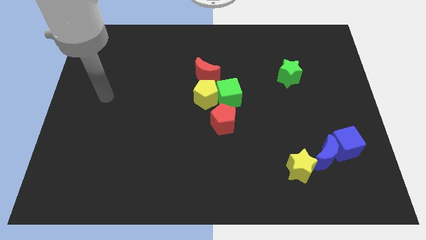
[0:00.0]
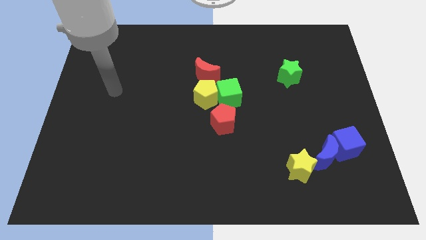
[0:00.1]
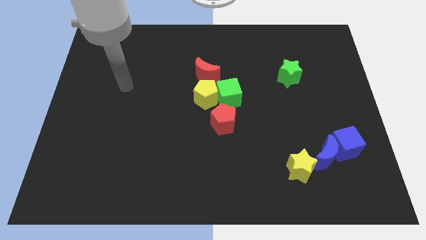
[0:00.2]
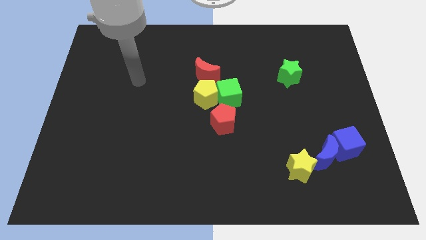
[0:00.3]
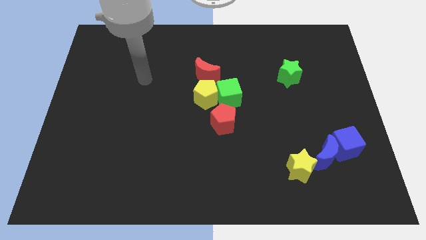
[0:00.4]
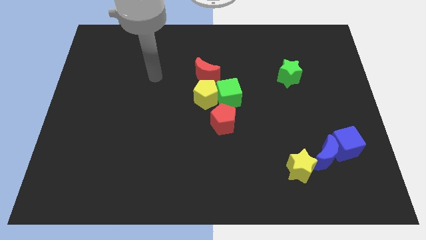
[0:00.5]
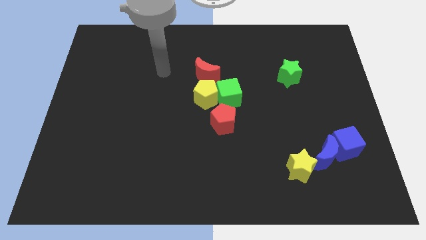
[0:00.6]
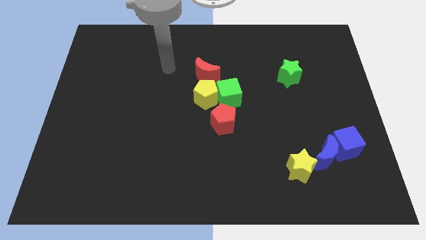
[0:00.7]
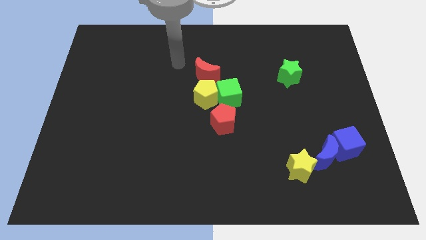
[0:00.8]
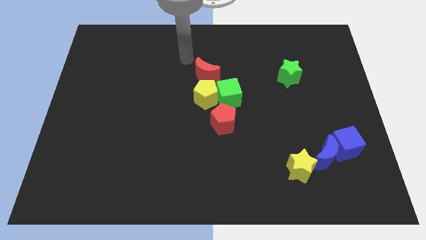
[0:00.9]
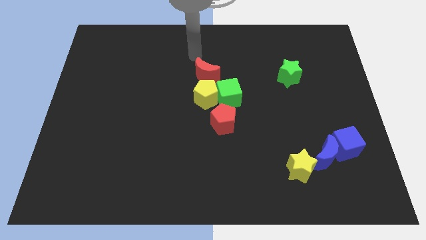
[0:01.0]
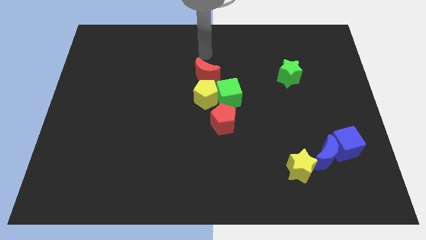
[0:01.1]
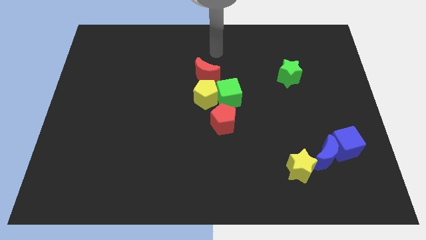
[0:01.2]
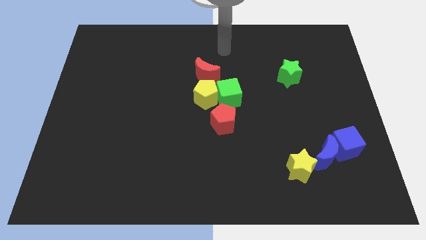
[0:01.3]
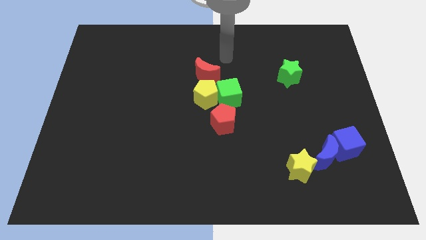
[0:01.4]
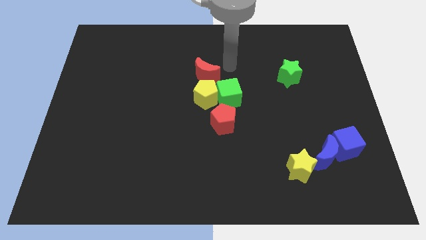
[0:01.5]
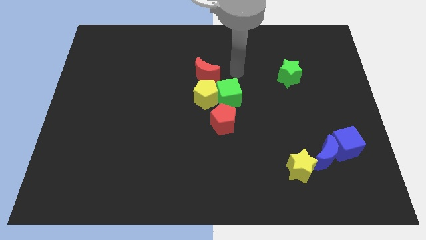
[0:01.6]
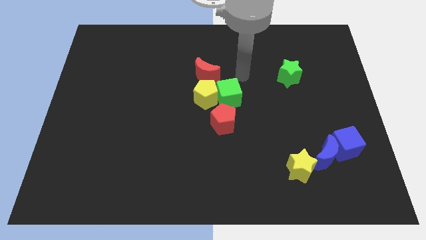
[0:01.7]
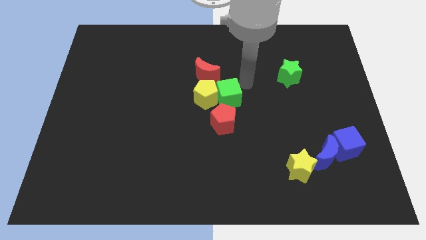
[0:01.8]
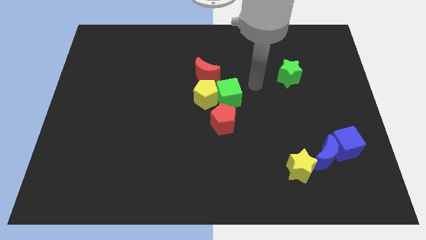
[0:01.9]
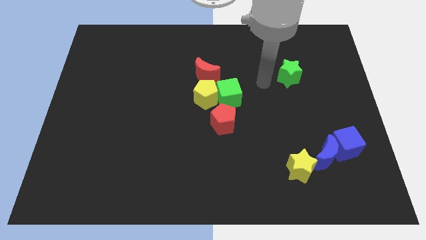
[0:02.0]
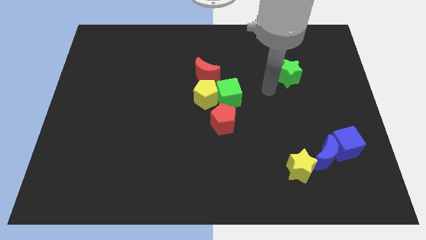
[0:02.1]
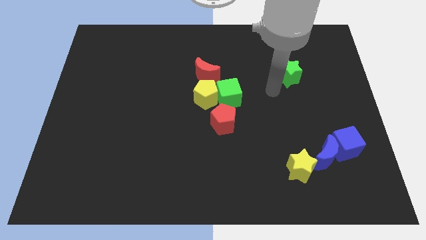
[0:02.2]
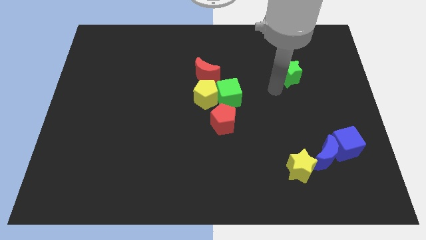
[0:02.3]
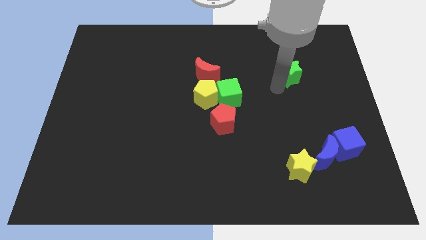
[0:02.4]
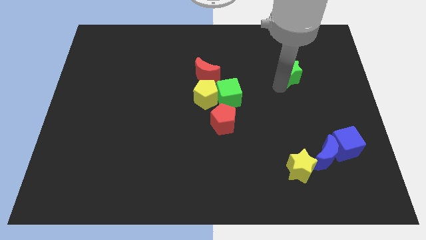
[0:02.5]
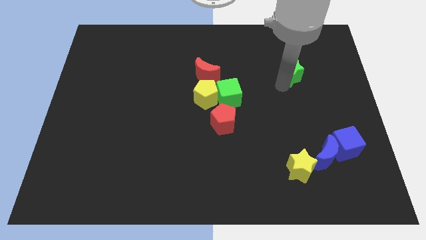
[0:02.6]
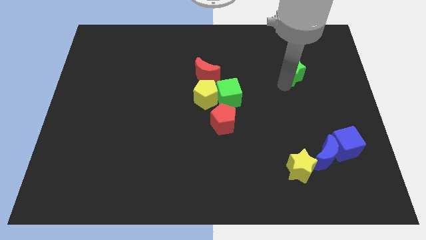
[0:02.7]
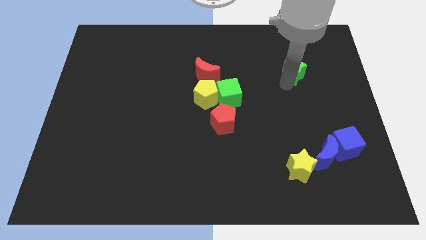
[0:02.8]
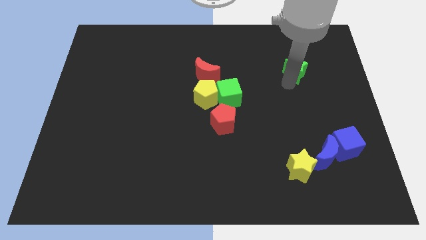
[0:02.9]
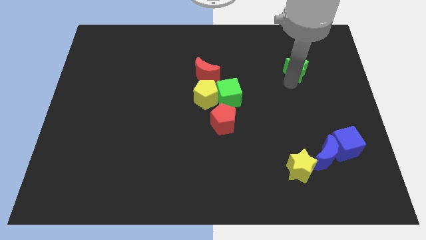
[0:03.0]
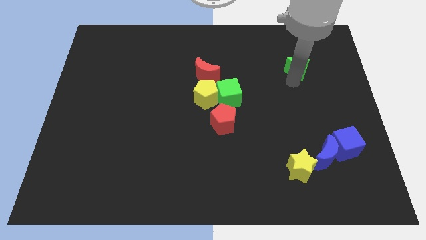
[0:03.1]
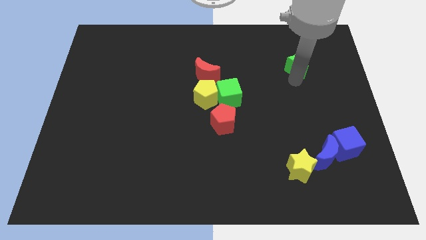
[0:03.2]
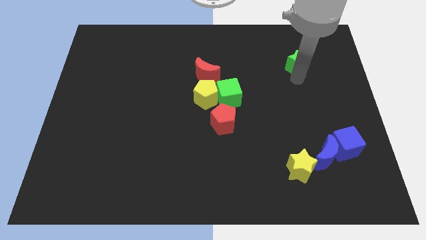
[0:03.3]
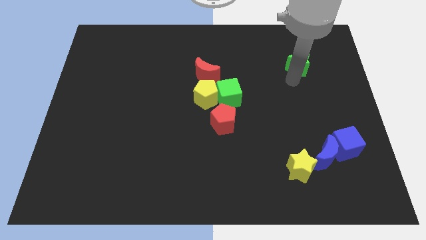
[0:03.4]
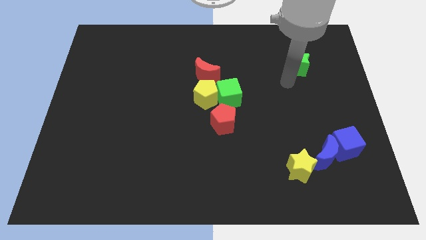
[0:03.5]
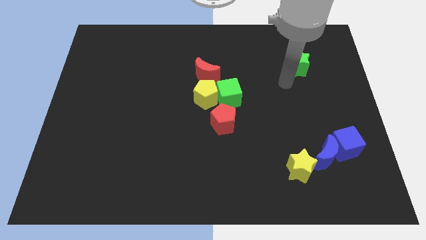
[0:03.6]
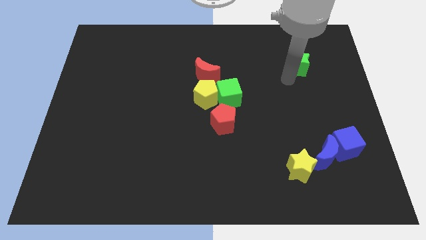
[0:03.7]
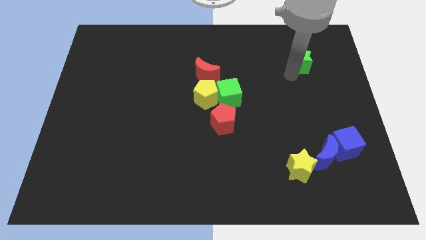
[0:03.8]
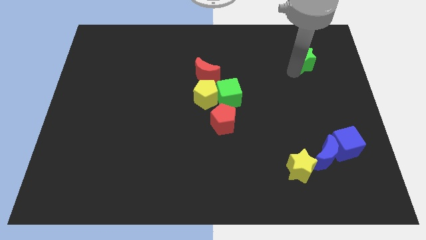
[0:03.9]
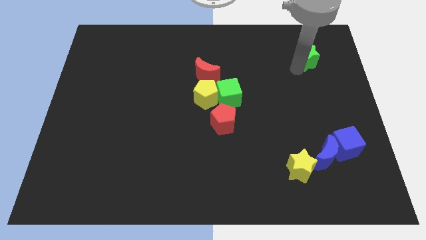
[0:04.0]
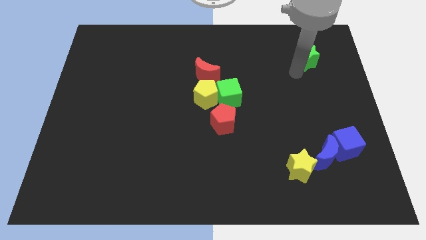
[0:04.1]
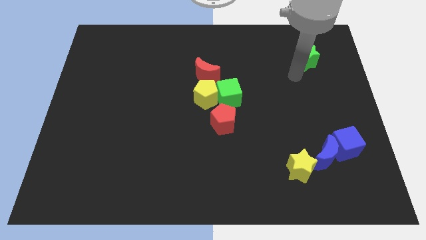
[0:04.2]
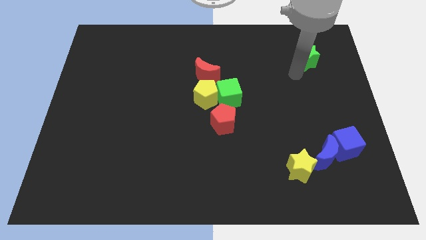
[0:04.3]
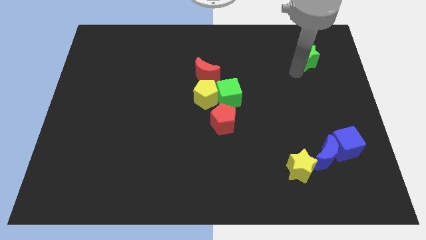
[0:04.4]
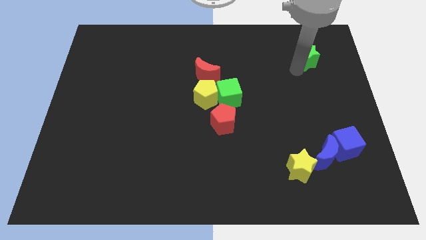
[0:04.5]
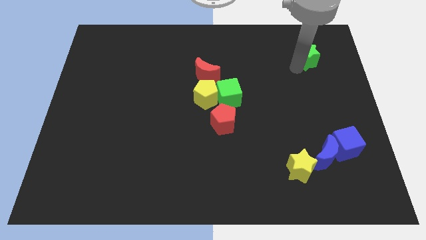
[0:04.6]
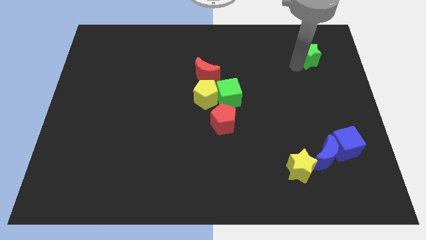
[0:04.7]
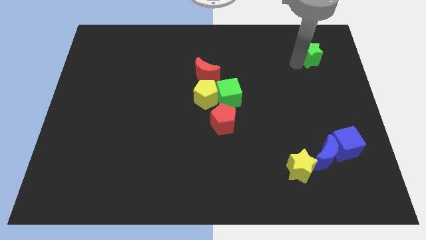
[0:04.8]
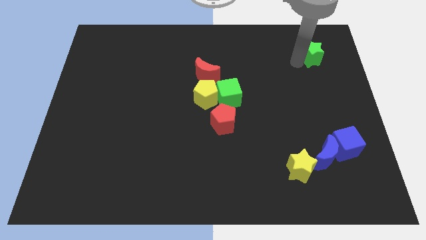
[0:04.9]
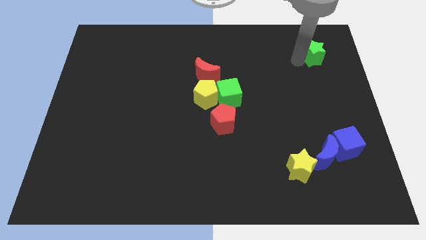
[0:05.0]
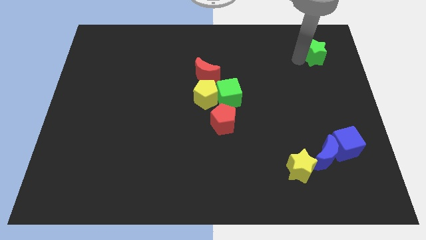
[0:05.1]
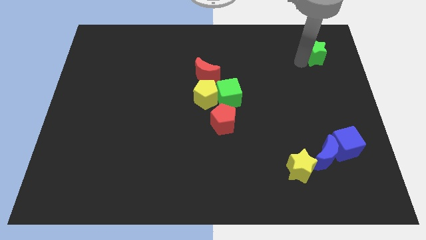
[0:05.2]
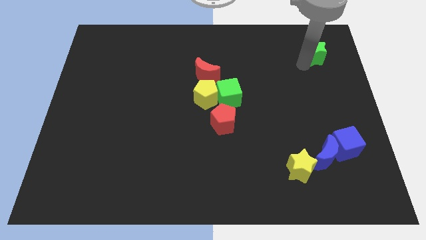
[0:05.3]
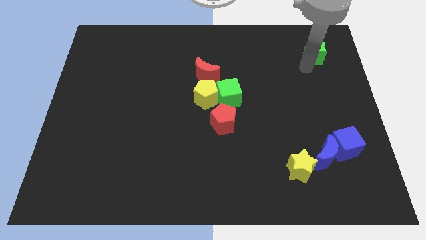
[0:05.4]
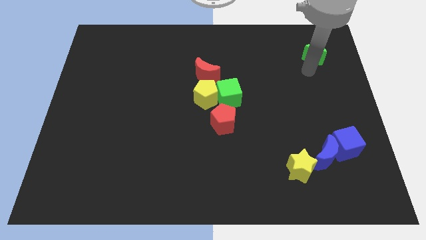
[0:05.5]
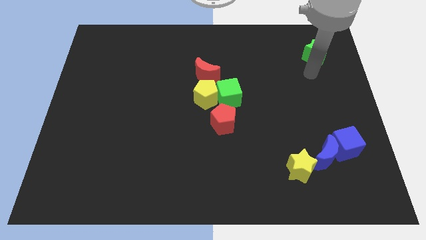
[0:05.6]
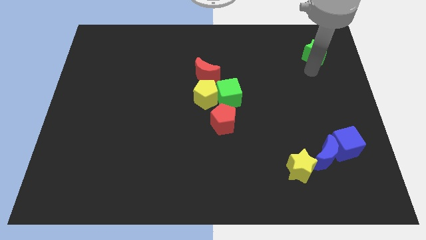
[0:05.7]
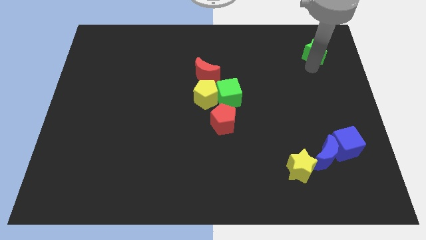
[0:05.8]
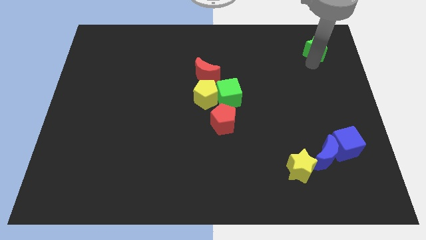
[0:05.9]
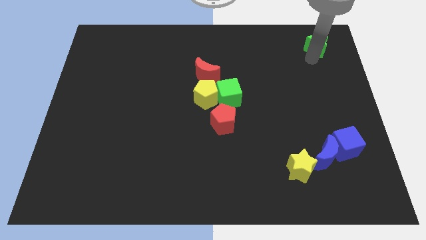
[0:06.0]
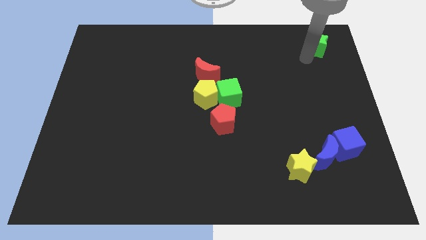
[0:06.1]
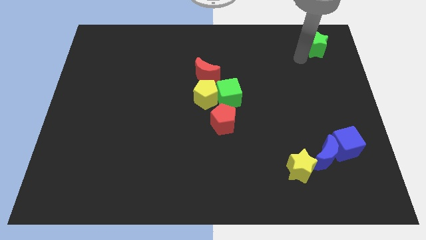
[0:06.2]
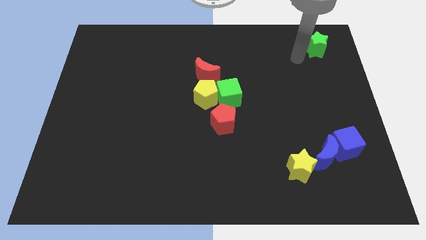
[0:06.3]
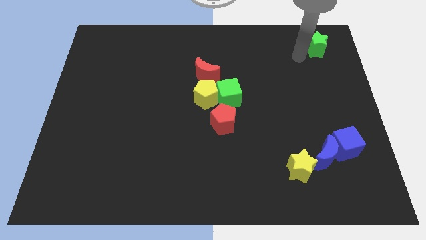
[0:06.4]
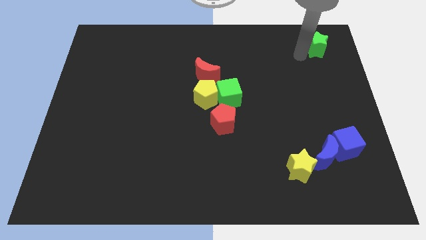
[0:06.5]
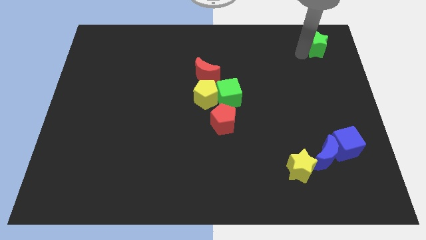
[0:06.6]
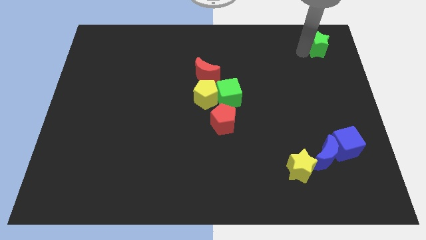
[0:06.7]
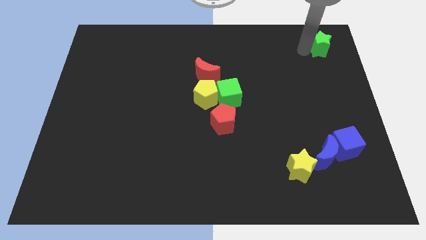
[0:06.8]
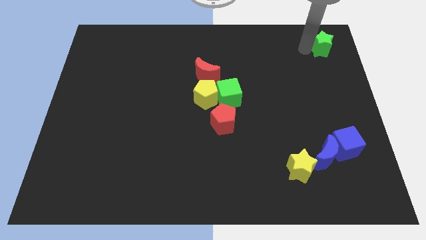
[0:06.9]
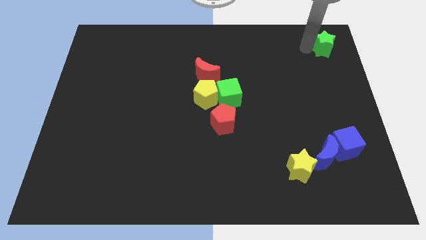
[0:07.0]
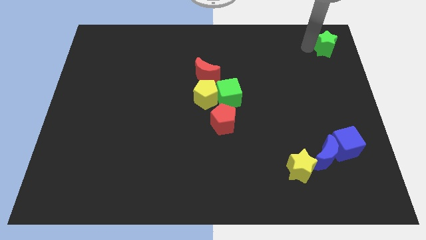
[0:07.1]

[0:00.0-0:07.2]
push the green star to the top right of the board

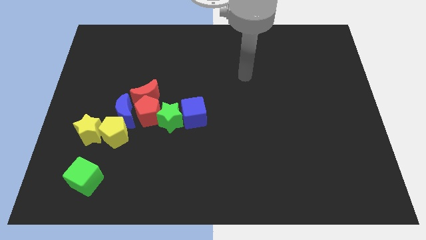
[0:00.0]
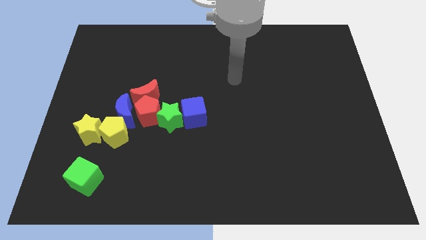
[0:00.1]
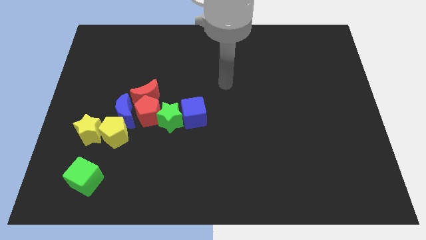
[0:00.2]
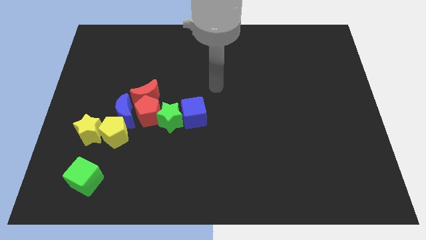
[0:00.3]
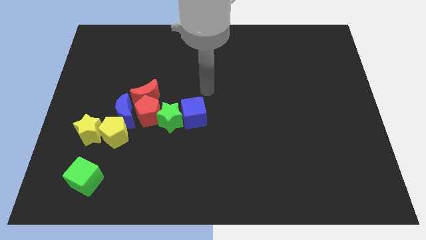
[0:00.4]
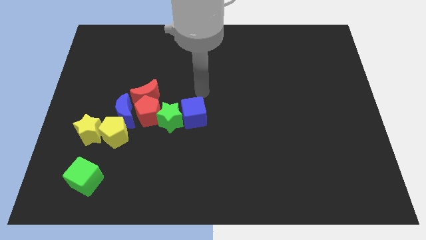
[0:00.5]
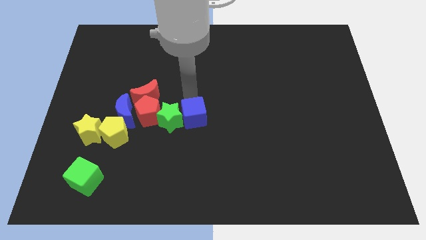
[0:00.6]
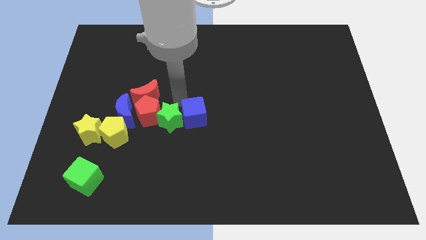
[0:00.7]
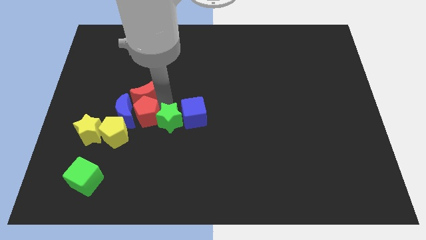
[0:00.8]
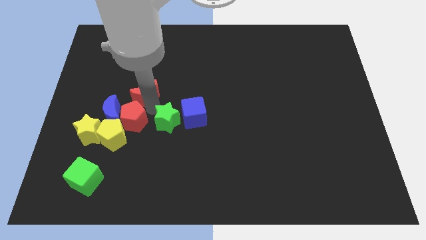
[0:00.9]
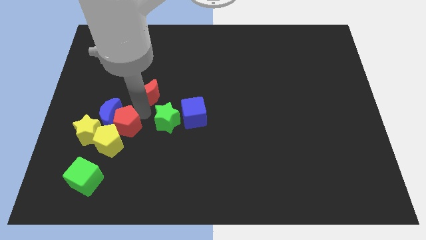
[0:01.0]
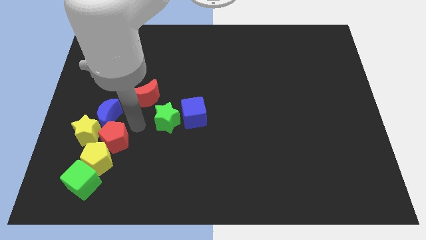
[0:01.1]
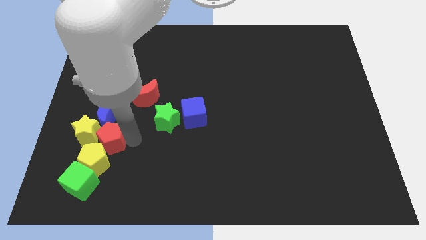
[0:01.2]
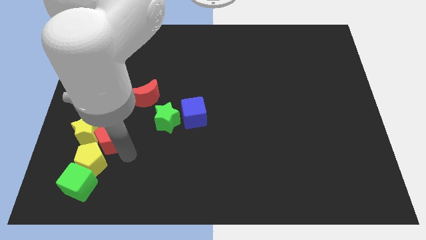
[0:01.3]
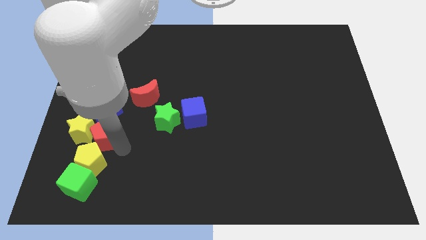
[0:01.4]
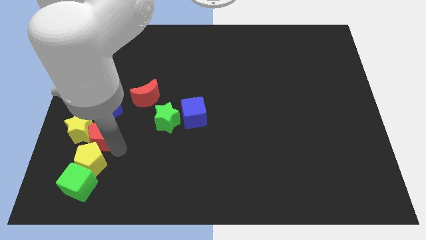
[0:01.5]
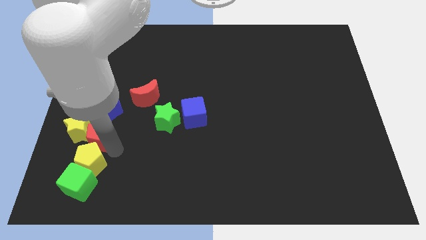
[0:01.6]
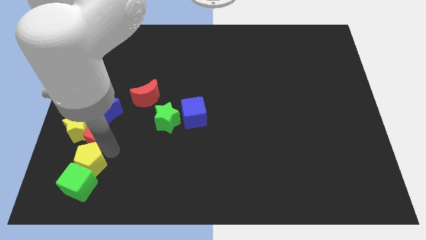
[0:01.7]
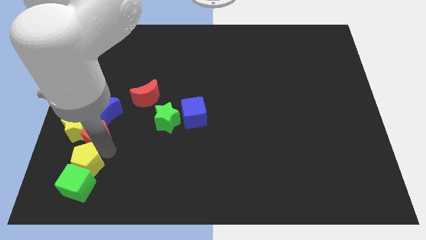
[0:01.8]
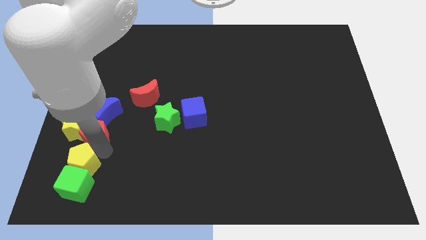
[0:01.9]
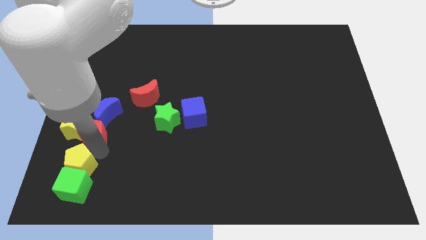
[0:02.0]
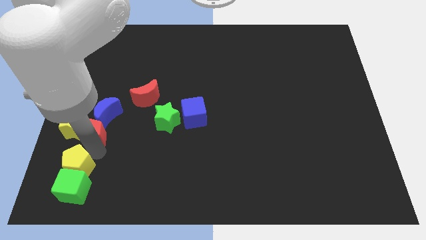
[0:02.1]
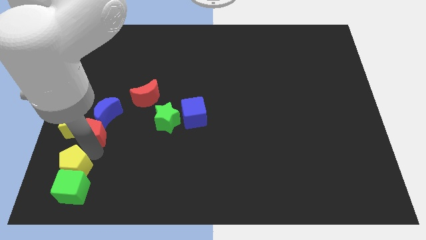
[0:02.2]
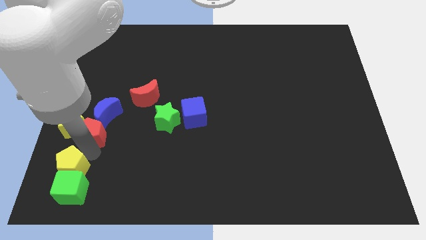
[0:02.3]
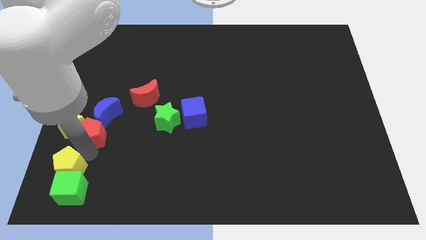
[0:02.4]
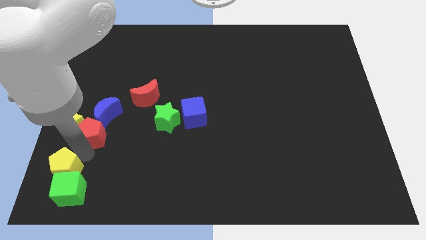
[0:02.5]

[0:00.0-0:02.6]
slide the yellow pentagon to the lower left corner
